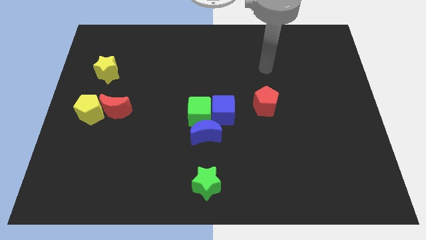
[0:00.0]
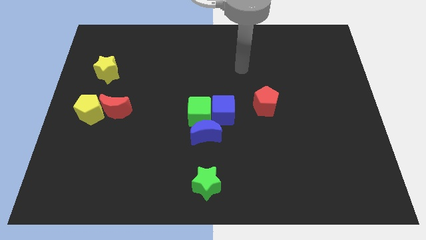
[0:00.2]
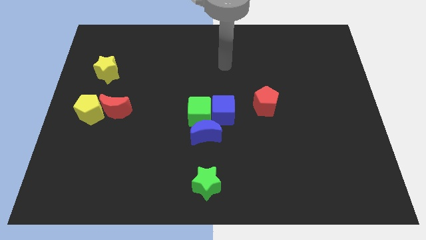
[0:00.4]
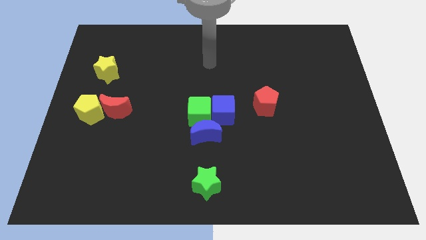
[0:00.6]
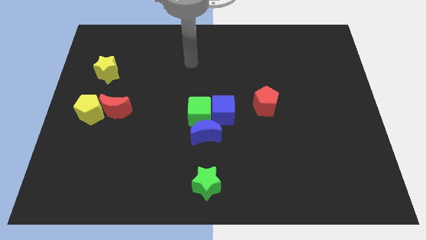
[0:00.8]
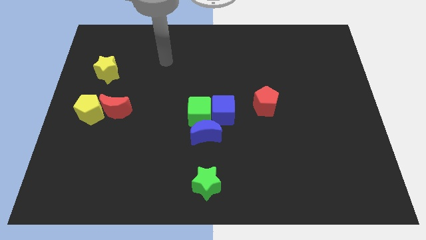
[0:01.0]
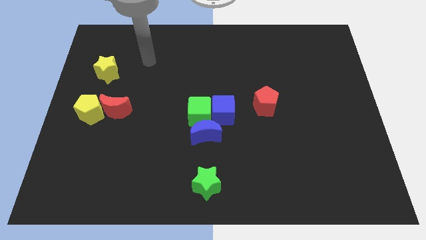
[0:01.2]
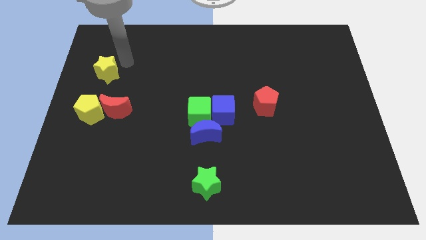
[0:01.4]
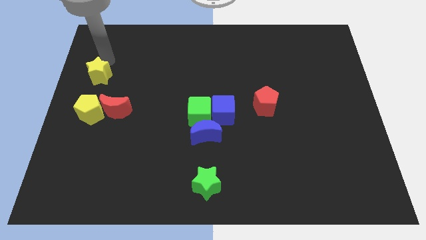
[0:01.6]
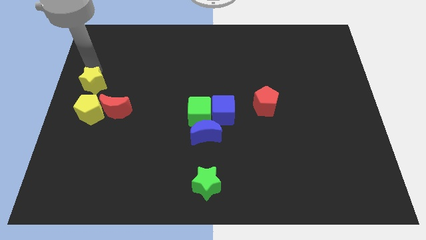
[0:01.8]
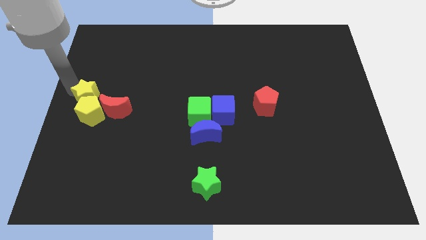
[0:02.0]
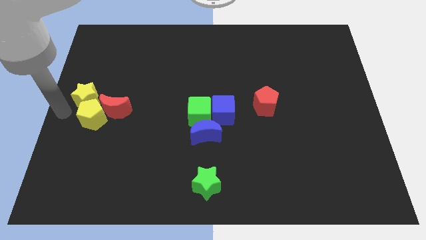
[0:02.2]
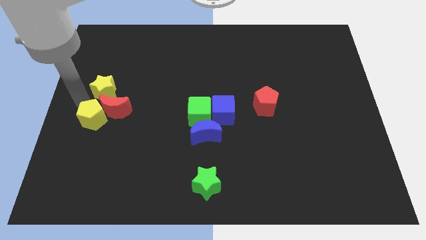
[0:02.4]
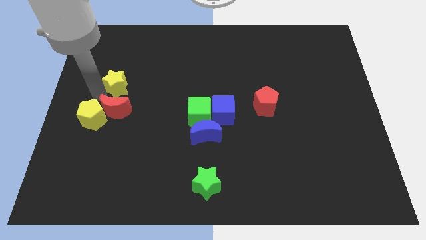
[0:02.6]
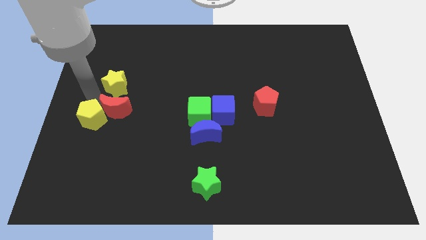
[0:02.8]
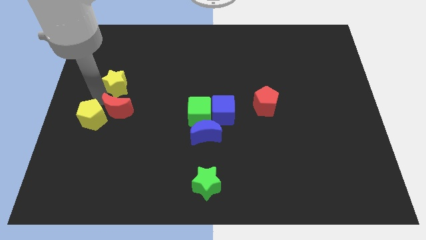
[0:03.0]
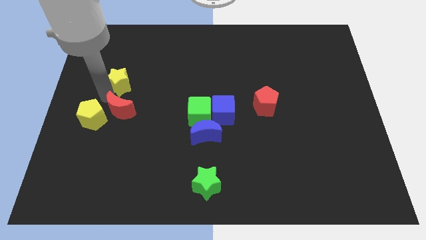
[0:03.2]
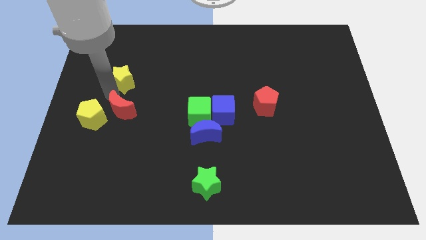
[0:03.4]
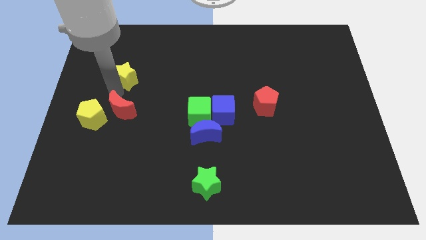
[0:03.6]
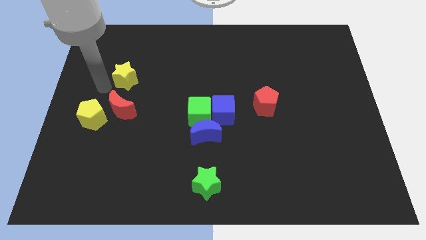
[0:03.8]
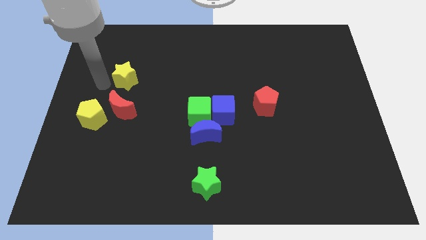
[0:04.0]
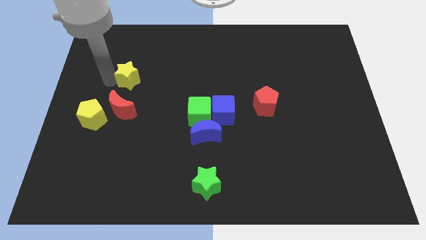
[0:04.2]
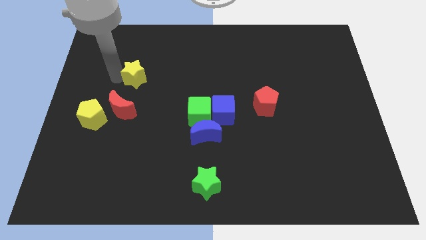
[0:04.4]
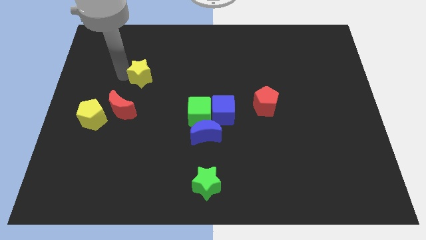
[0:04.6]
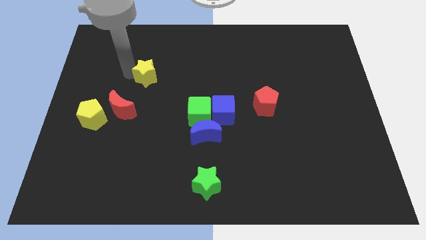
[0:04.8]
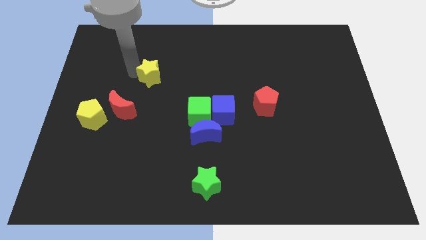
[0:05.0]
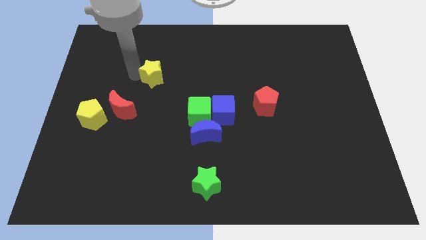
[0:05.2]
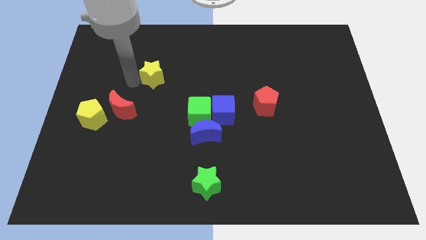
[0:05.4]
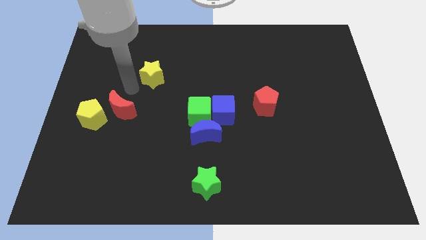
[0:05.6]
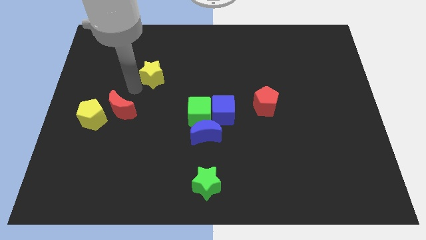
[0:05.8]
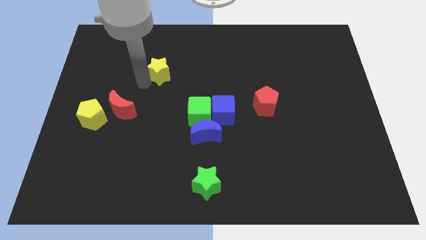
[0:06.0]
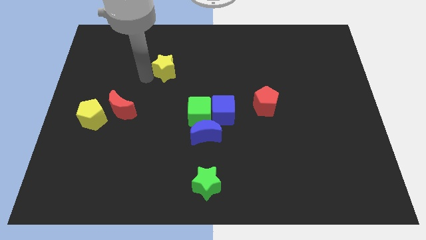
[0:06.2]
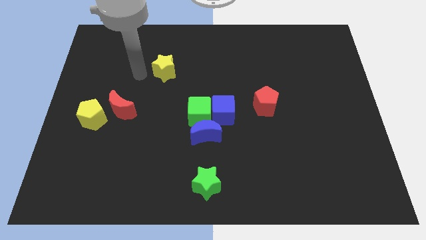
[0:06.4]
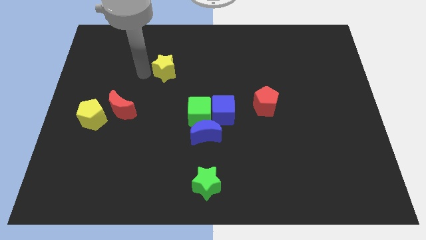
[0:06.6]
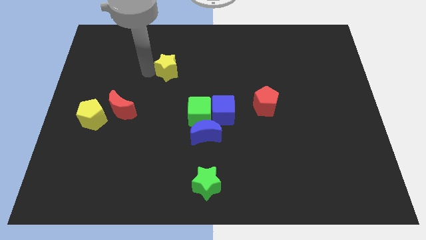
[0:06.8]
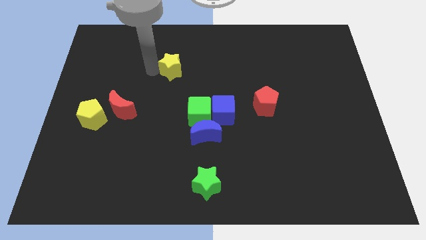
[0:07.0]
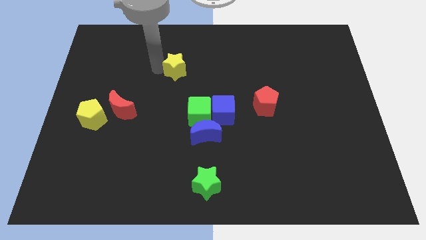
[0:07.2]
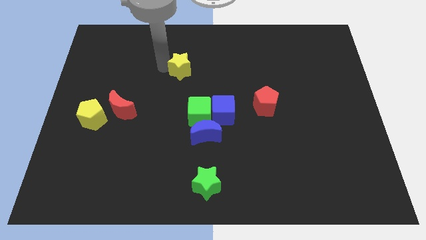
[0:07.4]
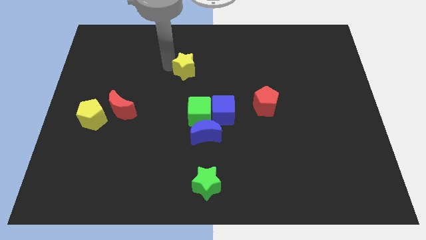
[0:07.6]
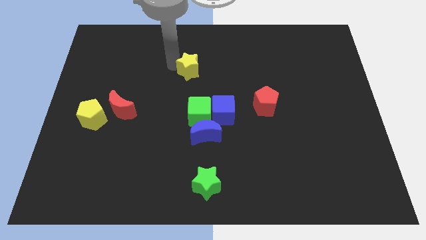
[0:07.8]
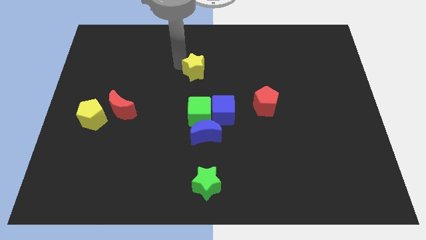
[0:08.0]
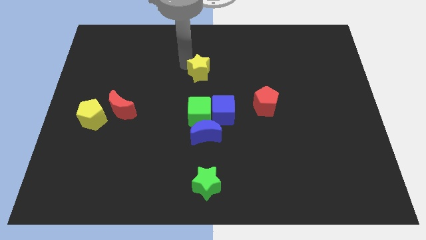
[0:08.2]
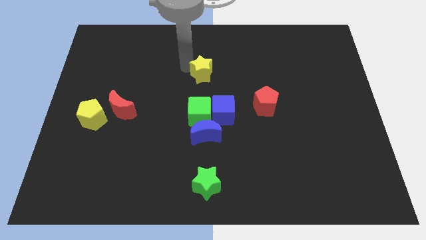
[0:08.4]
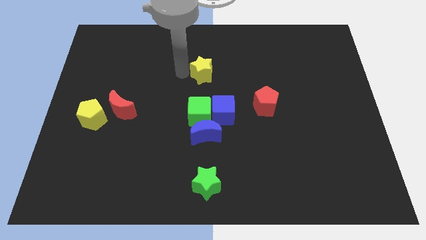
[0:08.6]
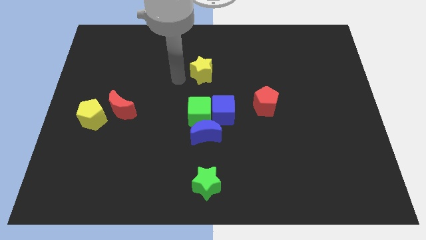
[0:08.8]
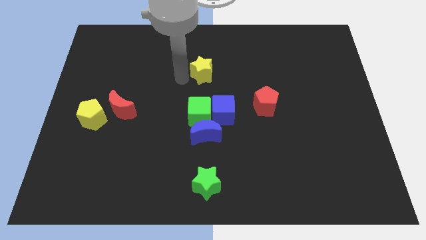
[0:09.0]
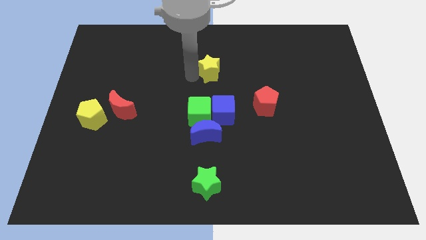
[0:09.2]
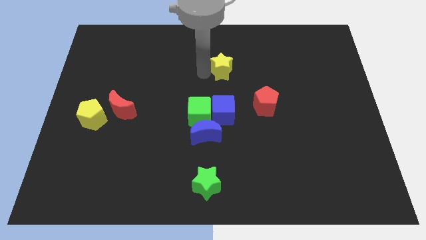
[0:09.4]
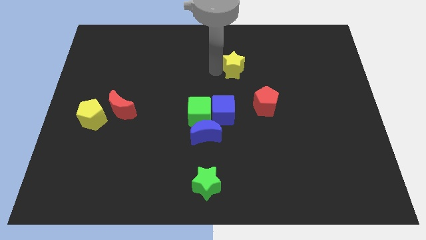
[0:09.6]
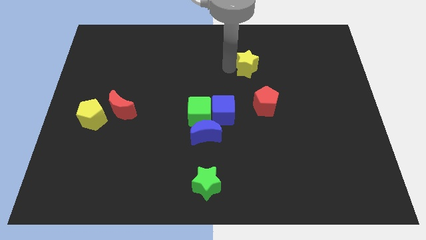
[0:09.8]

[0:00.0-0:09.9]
slide the yellow star to the top side of the red pentagon

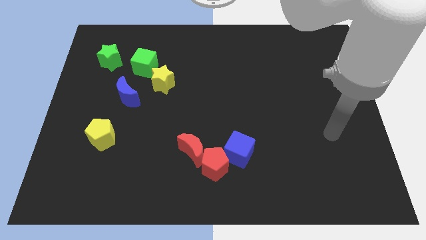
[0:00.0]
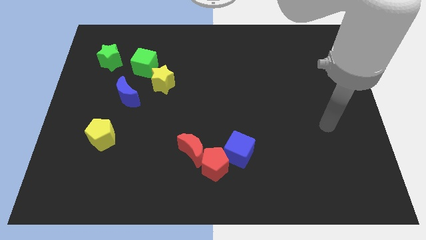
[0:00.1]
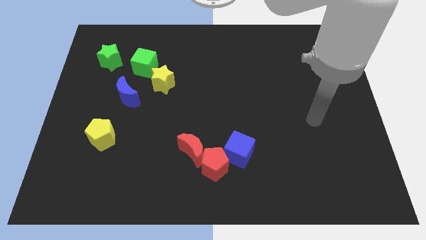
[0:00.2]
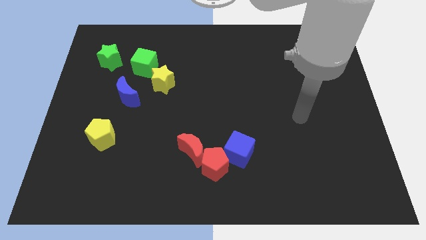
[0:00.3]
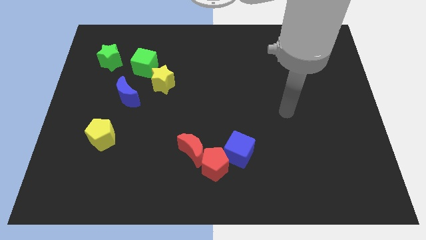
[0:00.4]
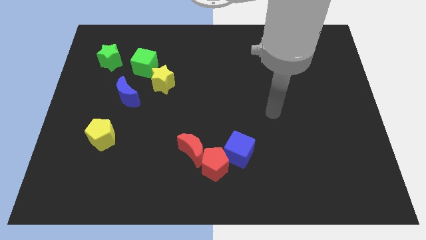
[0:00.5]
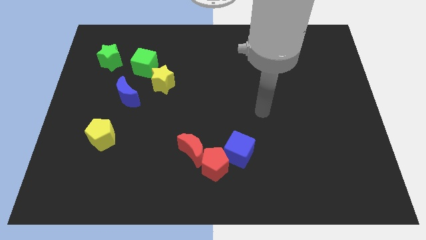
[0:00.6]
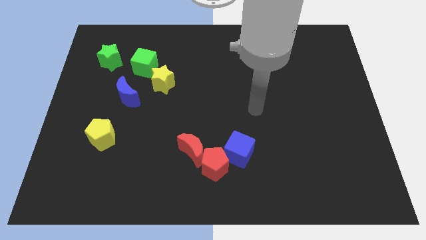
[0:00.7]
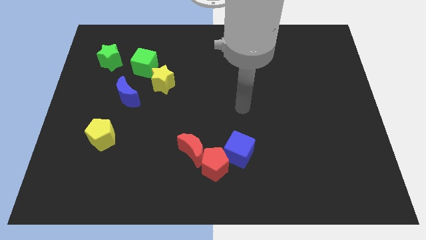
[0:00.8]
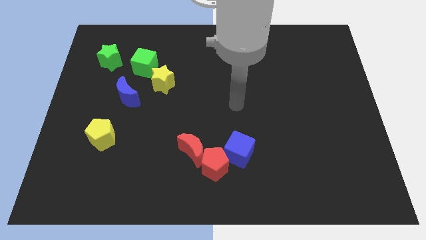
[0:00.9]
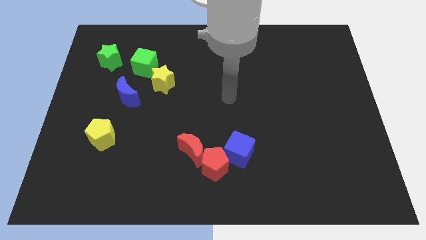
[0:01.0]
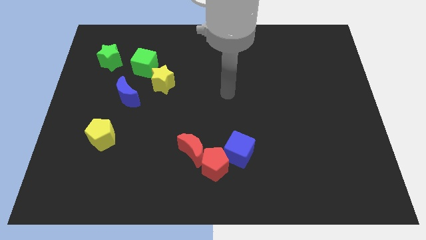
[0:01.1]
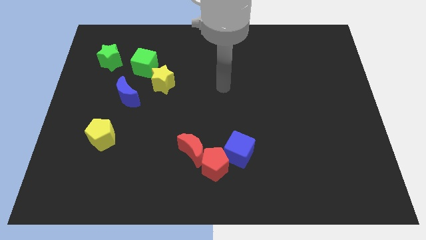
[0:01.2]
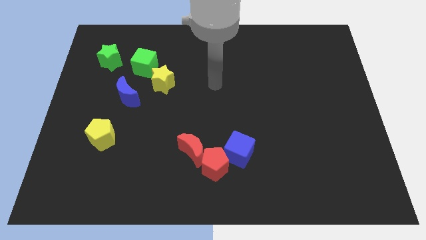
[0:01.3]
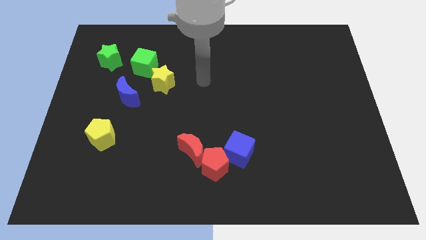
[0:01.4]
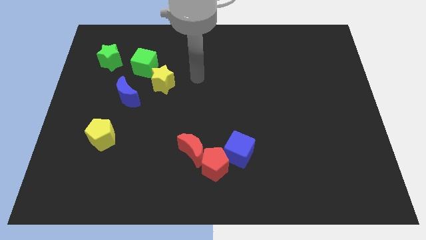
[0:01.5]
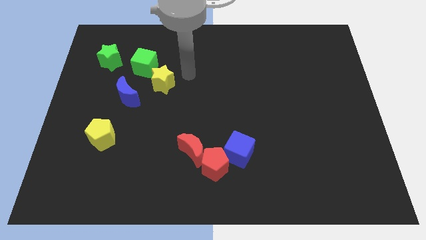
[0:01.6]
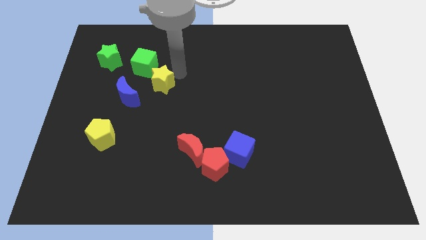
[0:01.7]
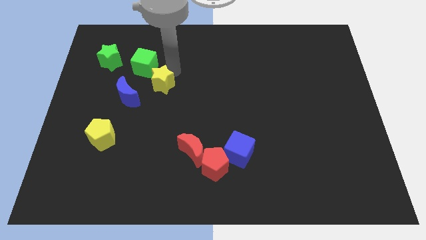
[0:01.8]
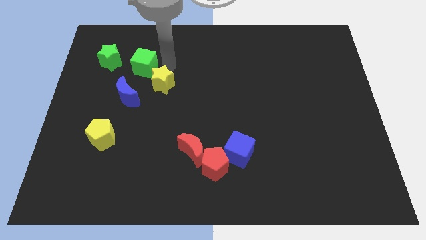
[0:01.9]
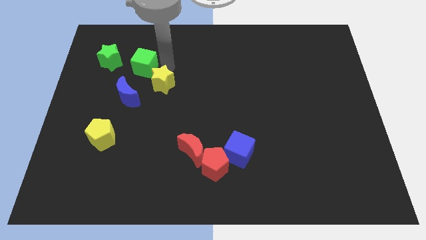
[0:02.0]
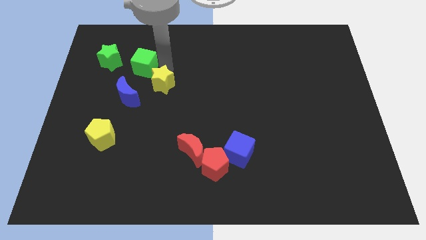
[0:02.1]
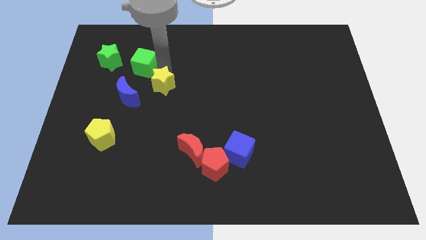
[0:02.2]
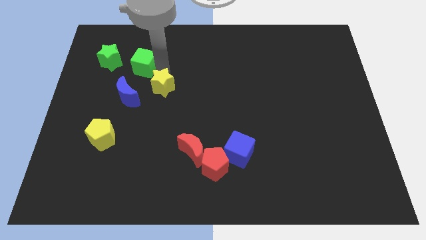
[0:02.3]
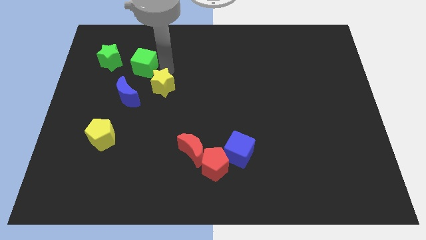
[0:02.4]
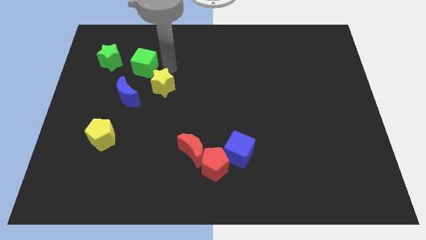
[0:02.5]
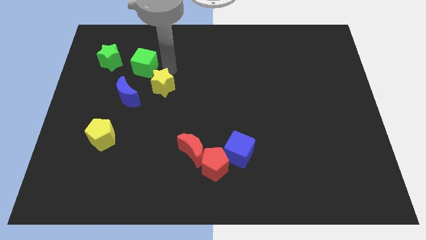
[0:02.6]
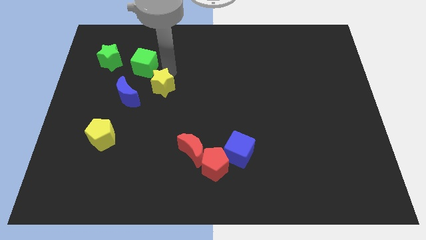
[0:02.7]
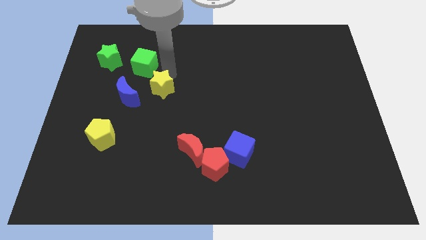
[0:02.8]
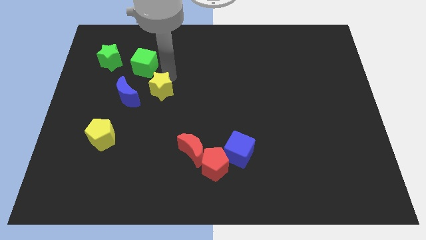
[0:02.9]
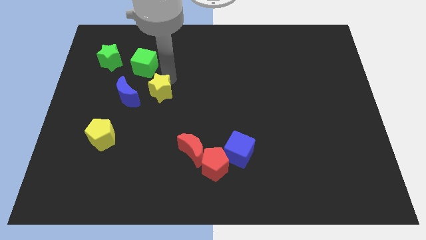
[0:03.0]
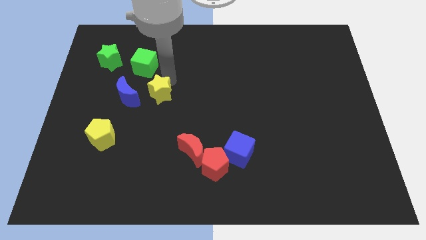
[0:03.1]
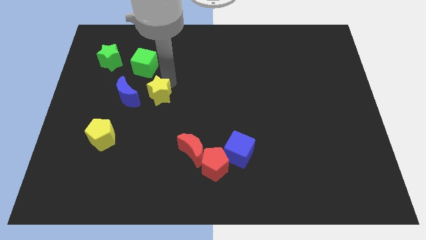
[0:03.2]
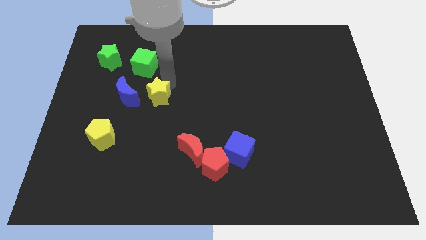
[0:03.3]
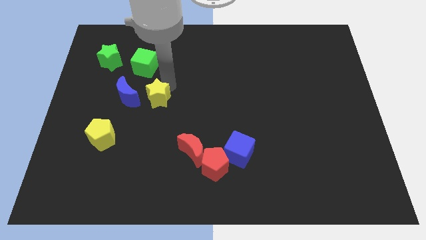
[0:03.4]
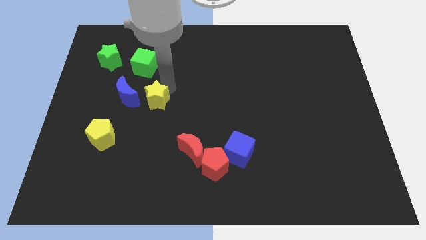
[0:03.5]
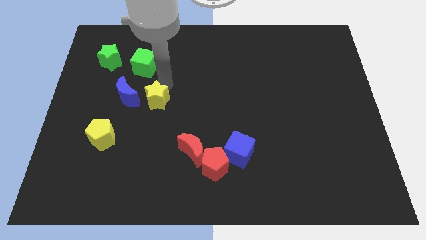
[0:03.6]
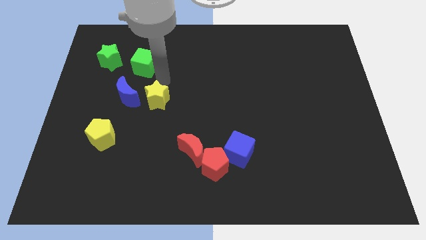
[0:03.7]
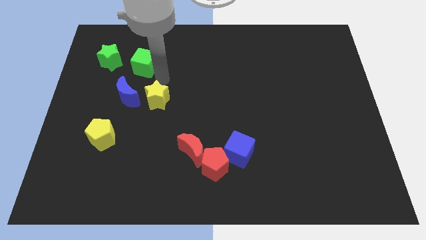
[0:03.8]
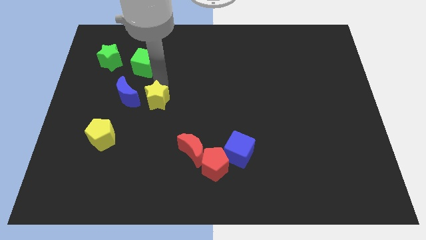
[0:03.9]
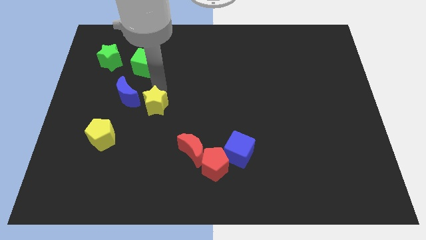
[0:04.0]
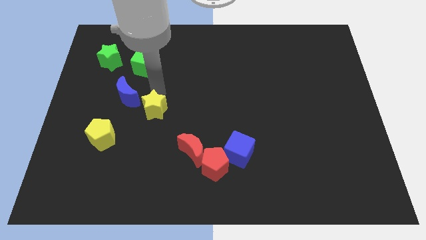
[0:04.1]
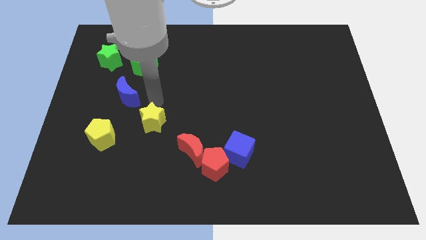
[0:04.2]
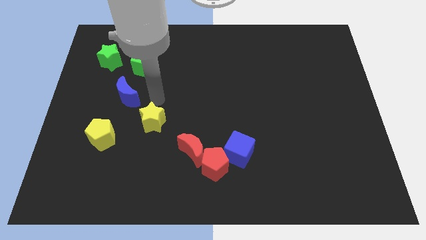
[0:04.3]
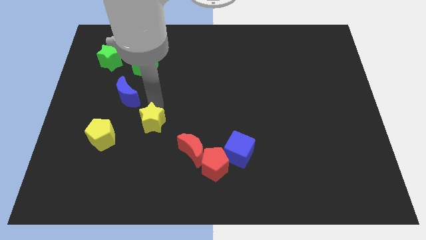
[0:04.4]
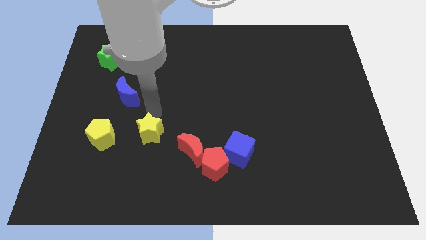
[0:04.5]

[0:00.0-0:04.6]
slide the yellow star to the left of the red moon
